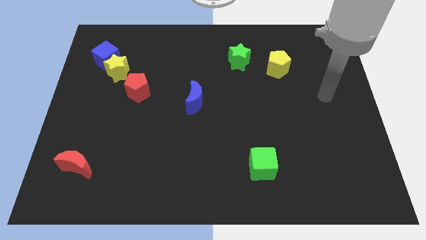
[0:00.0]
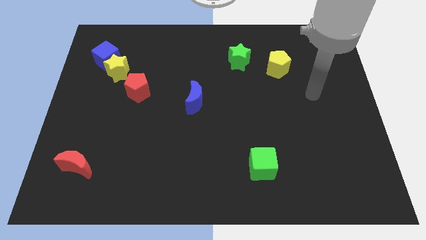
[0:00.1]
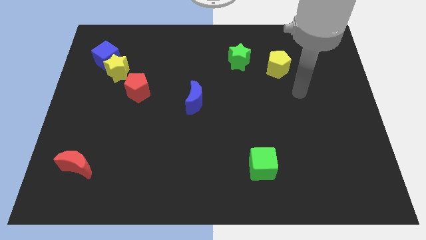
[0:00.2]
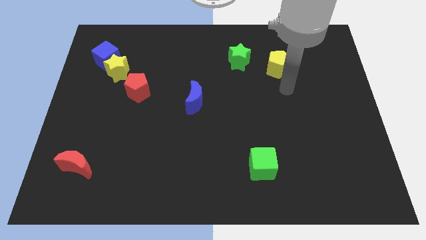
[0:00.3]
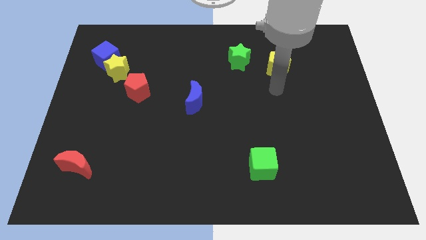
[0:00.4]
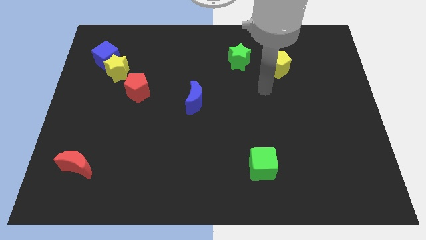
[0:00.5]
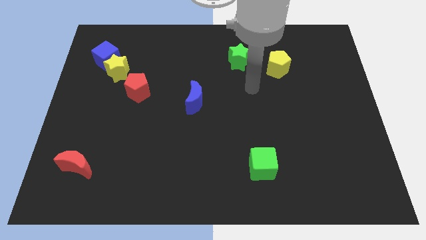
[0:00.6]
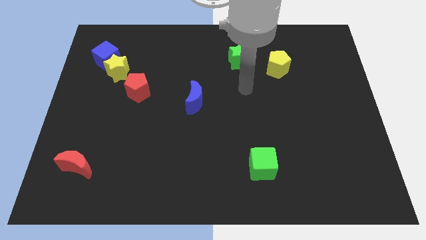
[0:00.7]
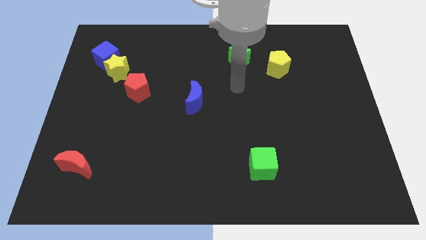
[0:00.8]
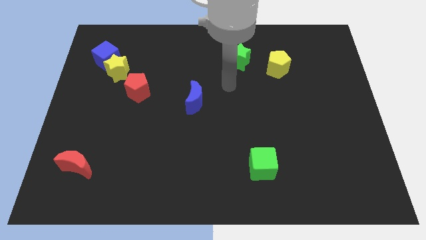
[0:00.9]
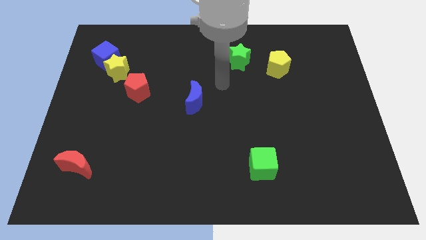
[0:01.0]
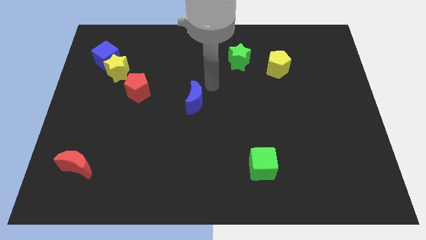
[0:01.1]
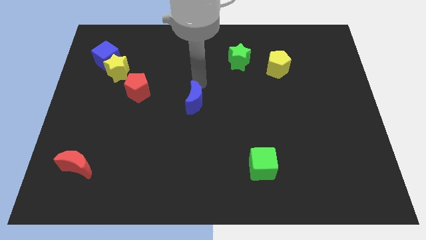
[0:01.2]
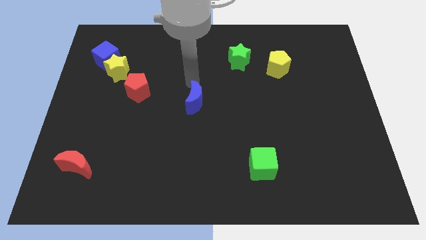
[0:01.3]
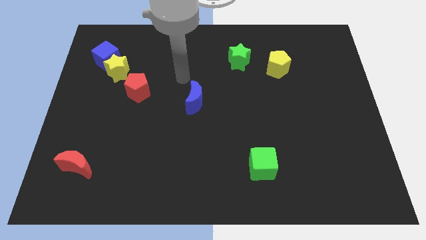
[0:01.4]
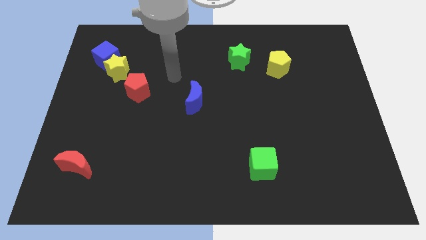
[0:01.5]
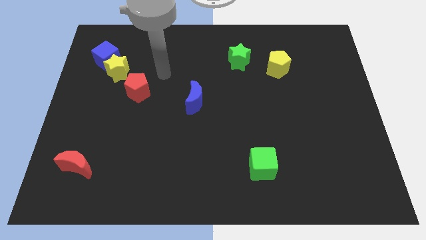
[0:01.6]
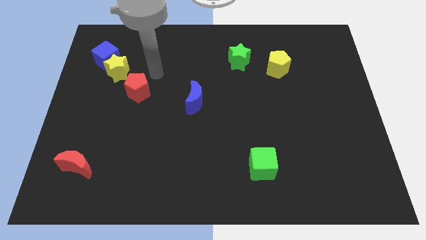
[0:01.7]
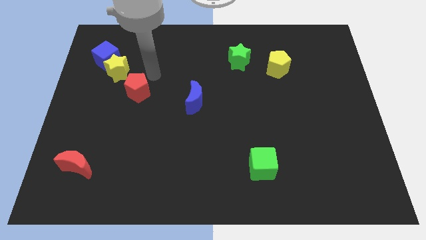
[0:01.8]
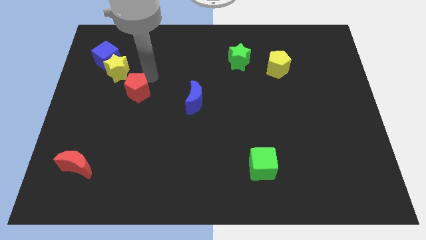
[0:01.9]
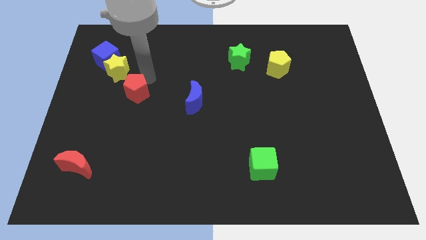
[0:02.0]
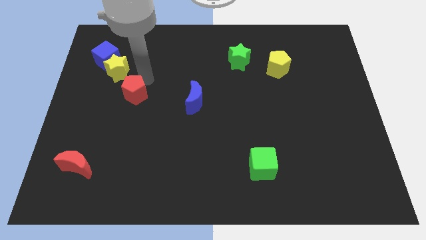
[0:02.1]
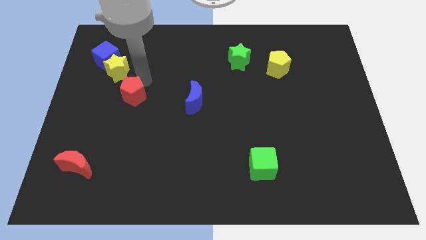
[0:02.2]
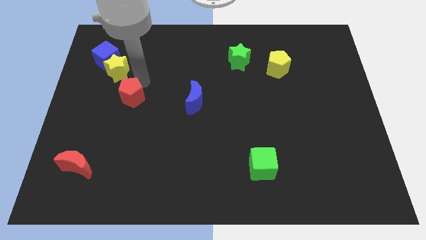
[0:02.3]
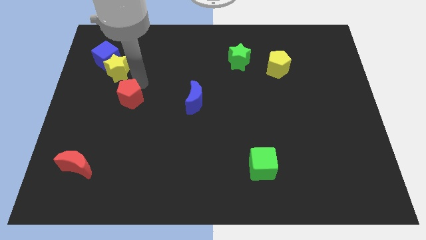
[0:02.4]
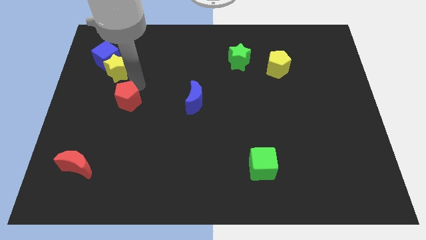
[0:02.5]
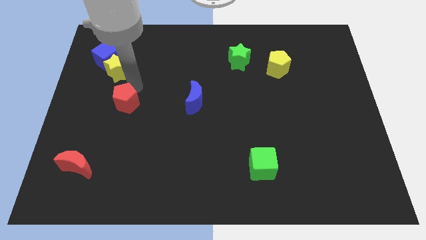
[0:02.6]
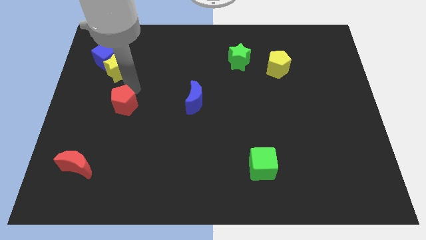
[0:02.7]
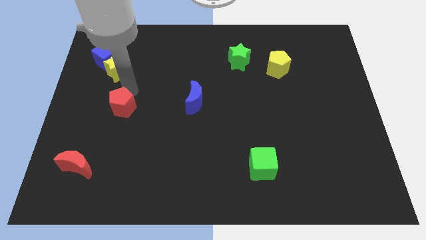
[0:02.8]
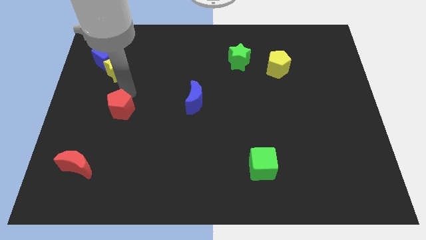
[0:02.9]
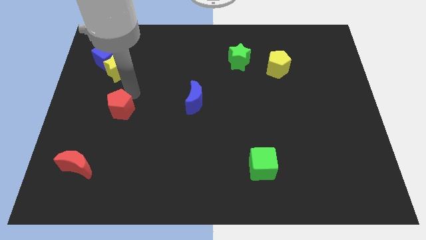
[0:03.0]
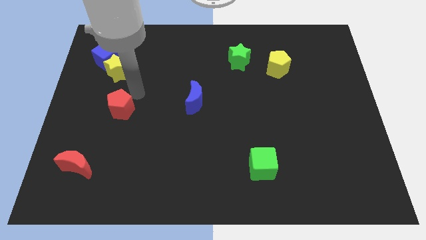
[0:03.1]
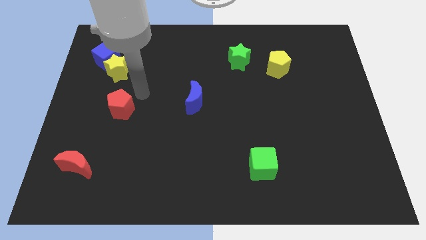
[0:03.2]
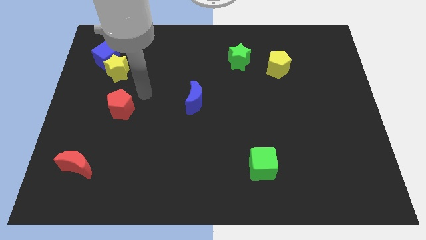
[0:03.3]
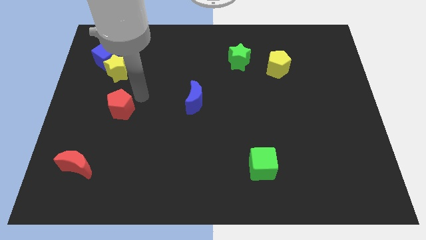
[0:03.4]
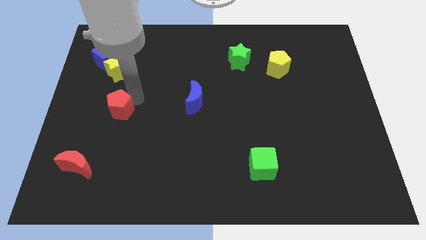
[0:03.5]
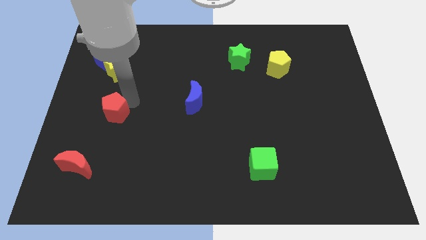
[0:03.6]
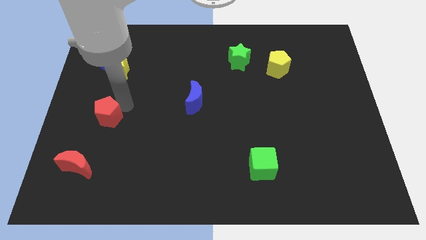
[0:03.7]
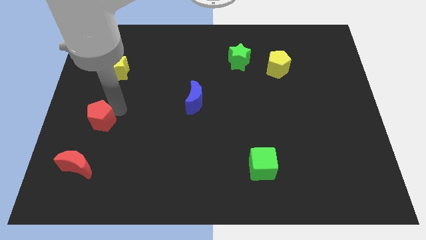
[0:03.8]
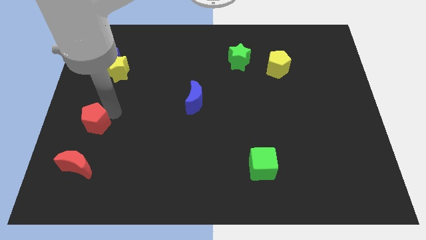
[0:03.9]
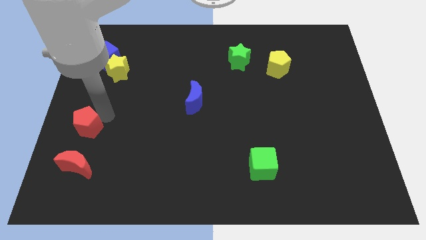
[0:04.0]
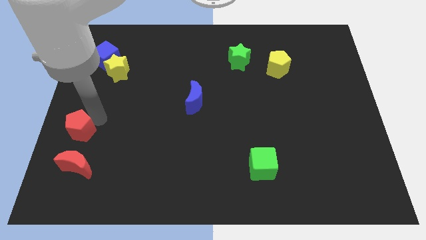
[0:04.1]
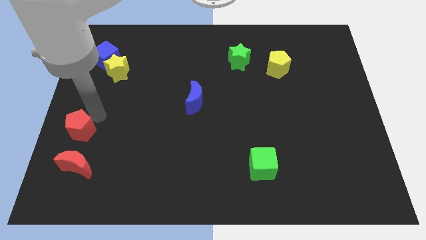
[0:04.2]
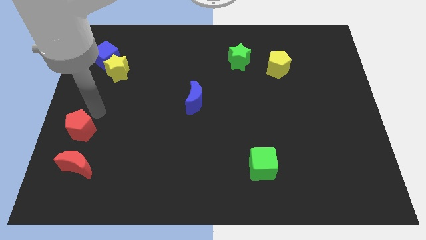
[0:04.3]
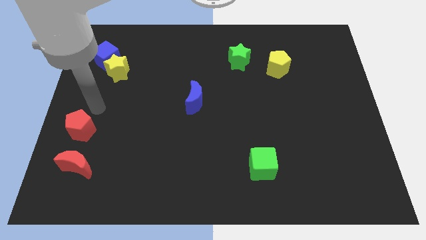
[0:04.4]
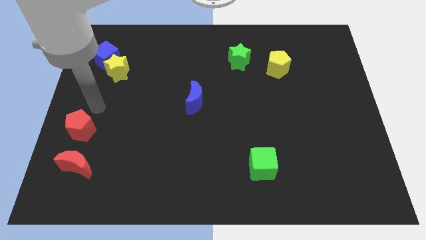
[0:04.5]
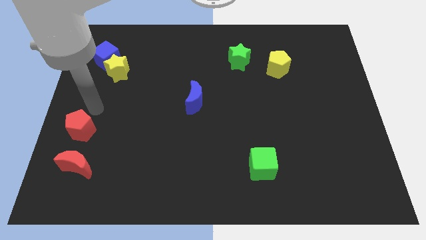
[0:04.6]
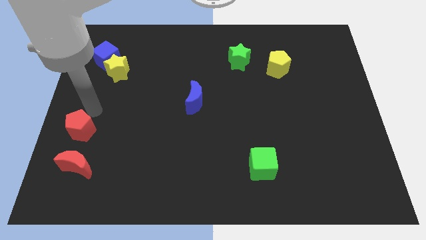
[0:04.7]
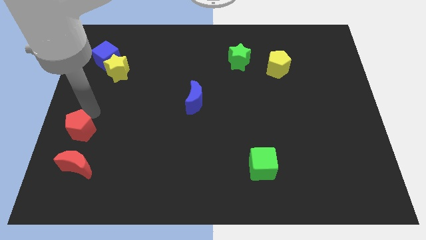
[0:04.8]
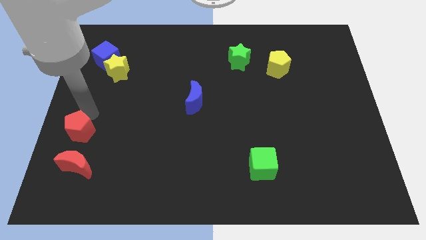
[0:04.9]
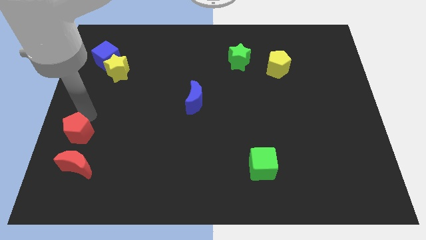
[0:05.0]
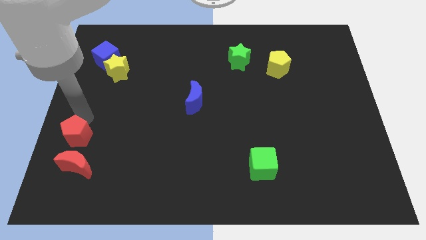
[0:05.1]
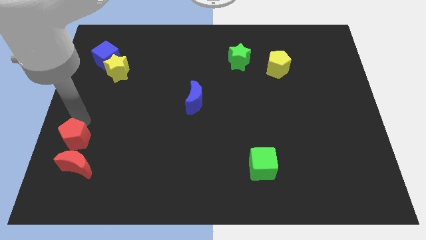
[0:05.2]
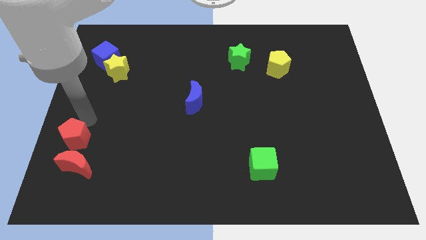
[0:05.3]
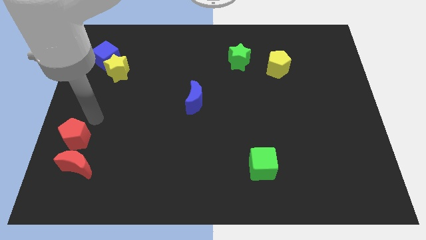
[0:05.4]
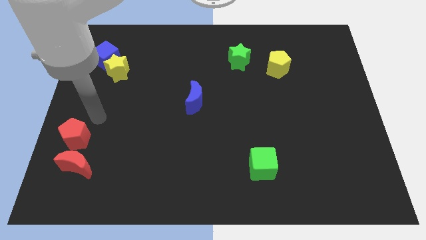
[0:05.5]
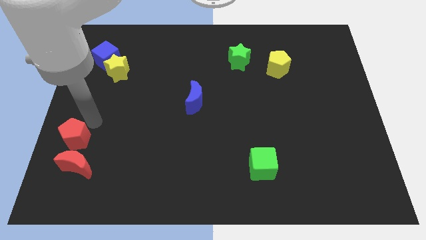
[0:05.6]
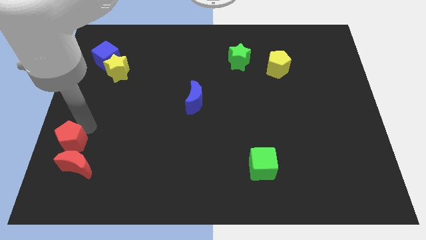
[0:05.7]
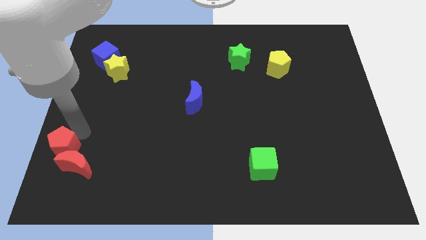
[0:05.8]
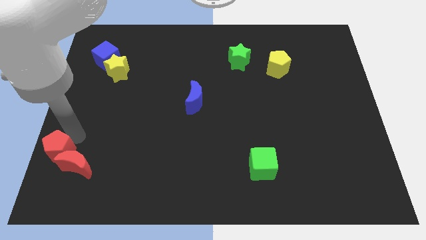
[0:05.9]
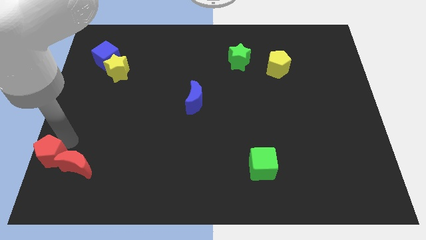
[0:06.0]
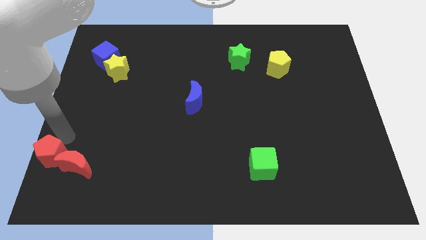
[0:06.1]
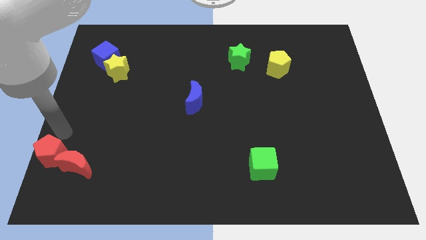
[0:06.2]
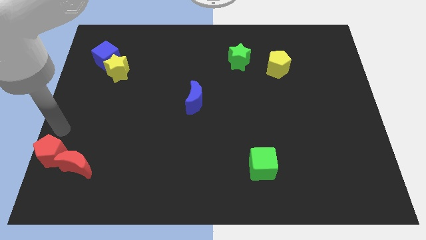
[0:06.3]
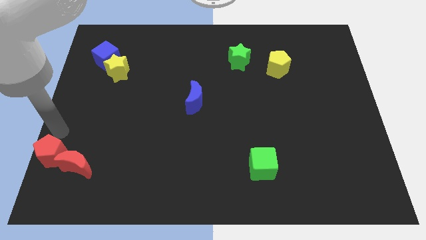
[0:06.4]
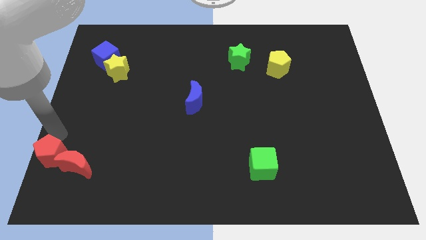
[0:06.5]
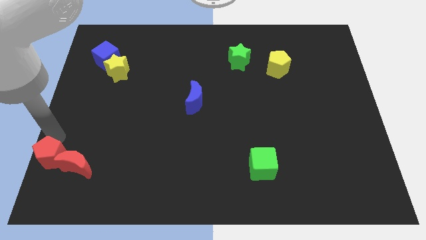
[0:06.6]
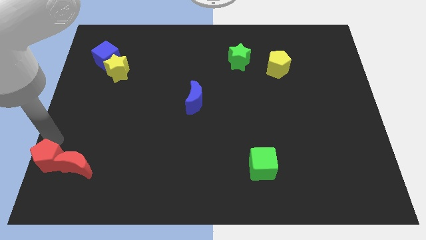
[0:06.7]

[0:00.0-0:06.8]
put the red pentagon to the lower left corner
